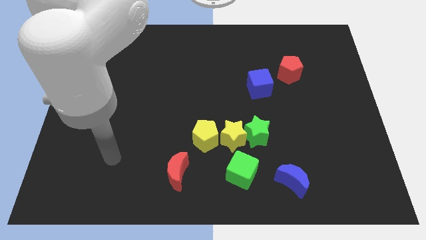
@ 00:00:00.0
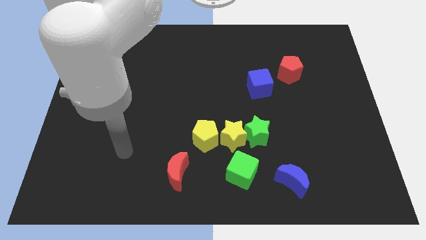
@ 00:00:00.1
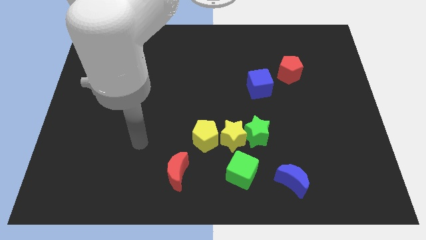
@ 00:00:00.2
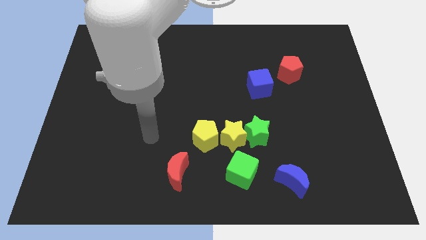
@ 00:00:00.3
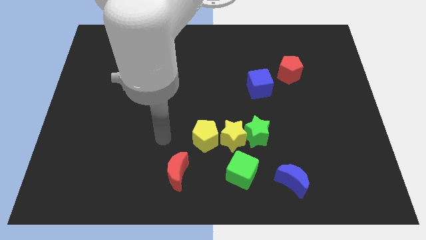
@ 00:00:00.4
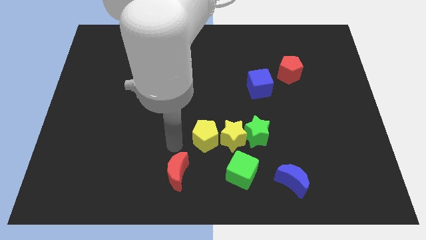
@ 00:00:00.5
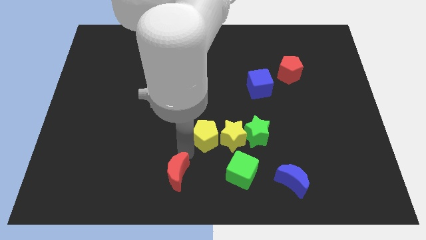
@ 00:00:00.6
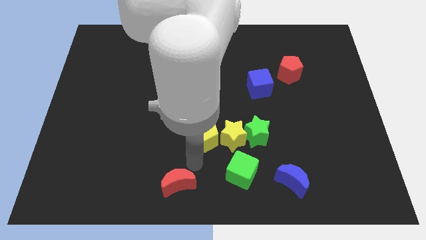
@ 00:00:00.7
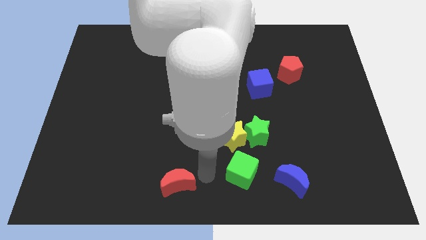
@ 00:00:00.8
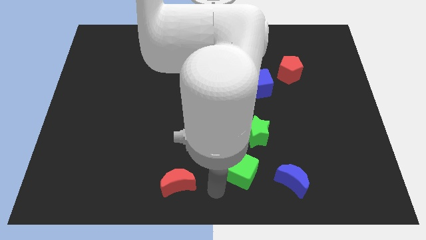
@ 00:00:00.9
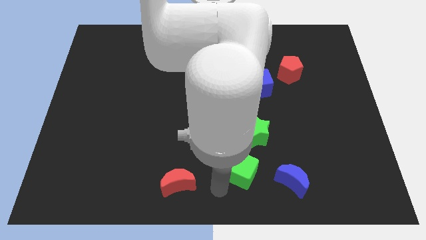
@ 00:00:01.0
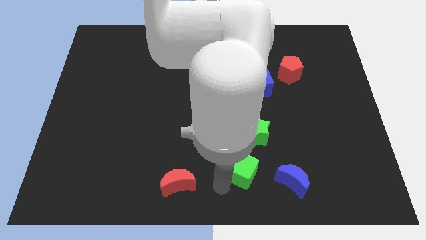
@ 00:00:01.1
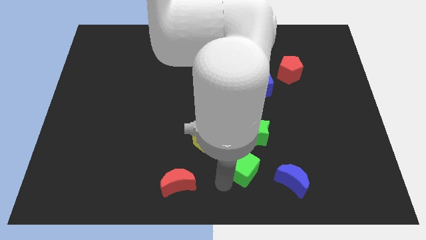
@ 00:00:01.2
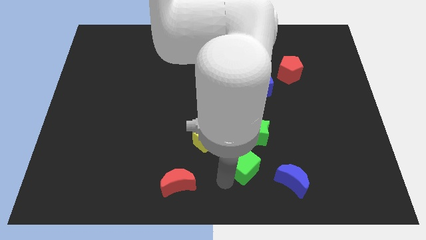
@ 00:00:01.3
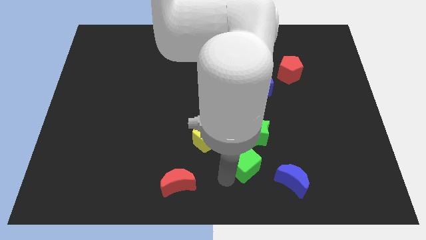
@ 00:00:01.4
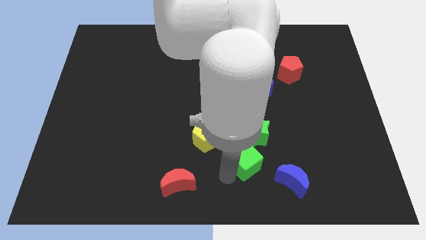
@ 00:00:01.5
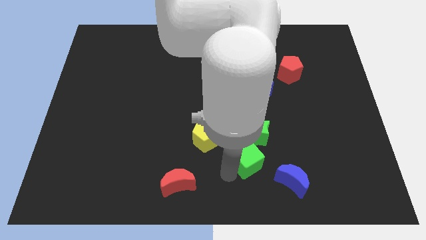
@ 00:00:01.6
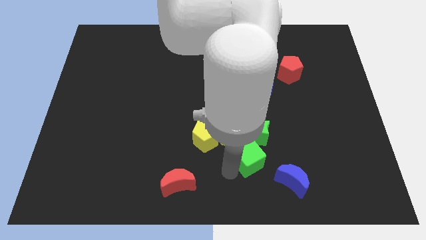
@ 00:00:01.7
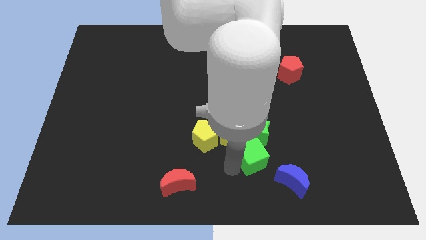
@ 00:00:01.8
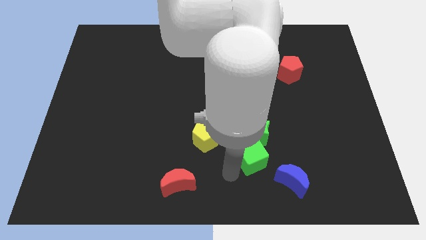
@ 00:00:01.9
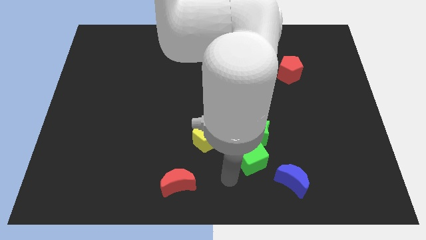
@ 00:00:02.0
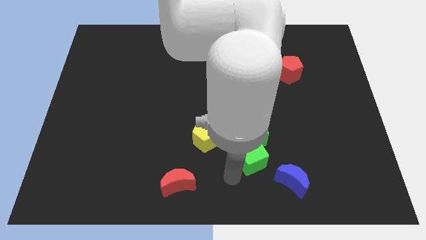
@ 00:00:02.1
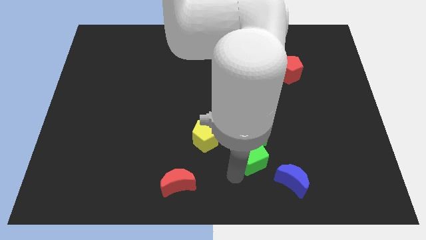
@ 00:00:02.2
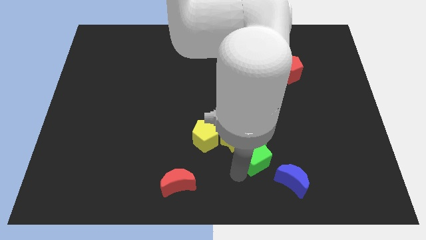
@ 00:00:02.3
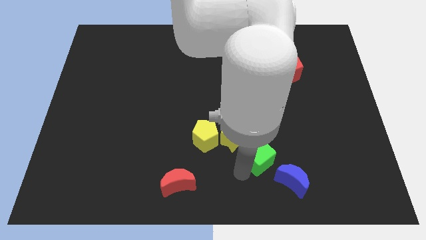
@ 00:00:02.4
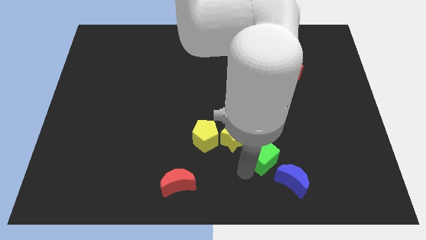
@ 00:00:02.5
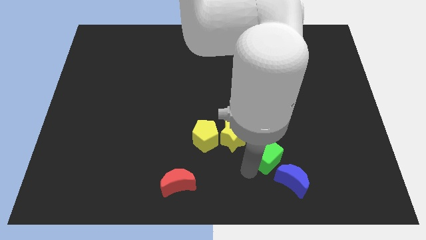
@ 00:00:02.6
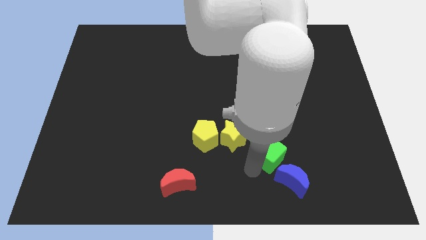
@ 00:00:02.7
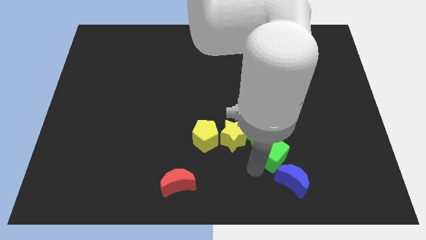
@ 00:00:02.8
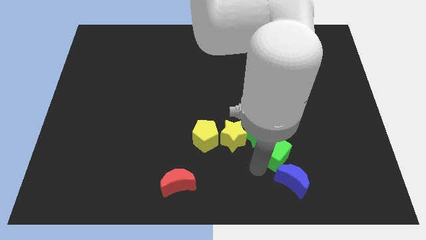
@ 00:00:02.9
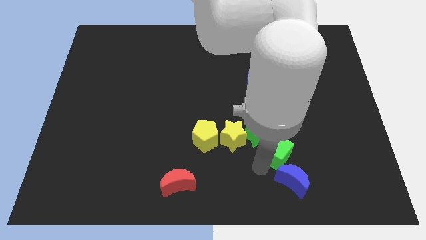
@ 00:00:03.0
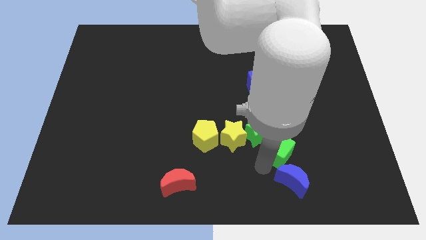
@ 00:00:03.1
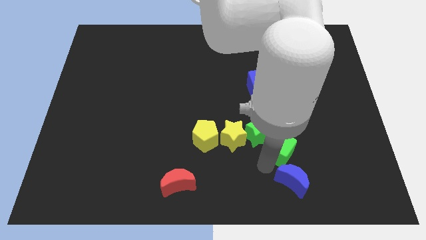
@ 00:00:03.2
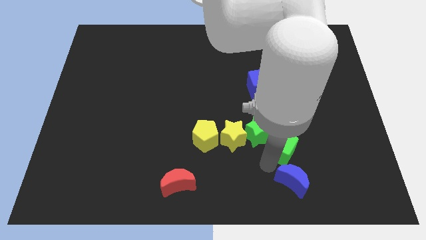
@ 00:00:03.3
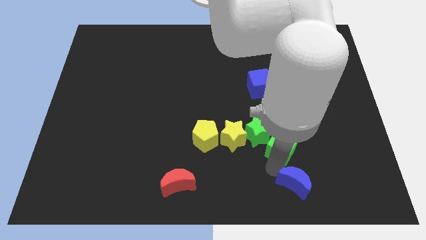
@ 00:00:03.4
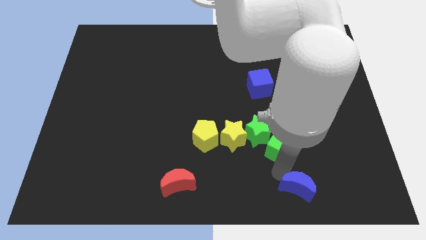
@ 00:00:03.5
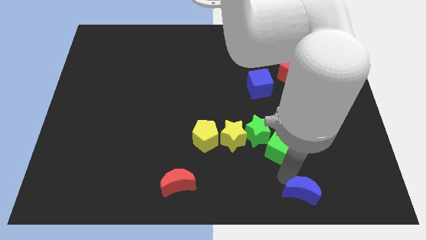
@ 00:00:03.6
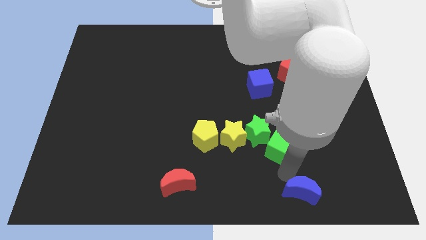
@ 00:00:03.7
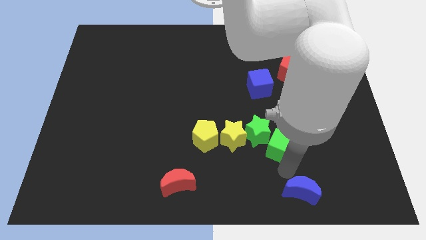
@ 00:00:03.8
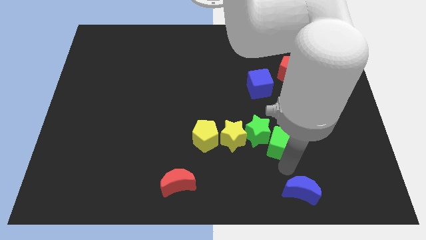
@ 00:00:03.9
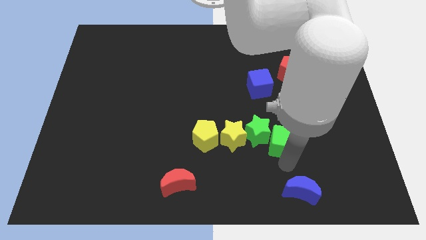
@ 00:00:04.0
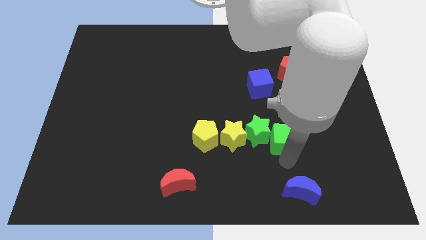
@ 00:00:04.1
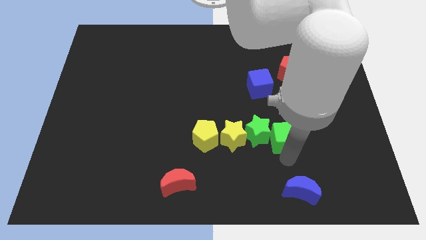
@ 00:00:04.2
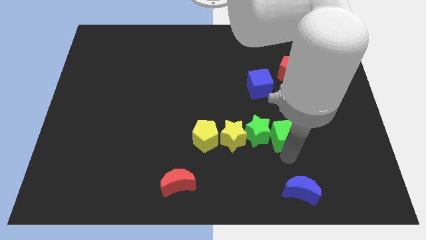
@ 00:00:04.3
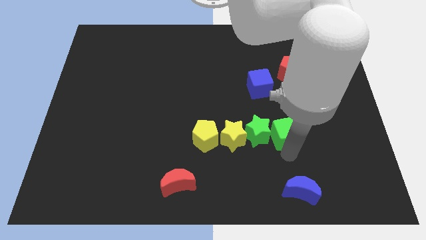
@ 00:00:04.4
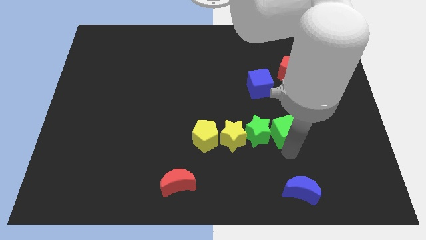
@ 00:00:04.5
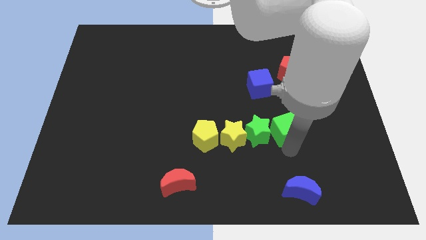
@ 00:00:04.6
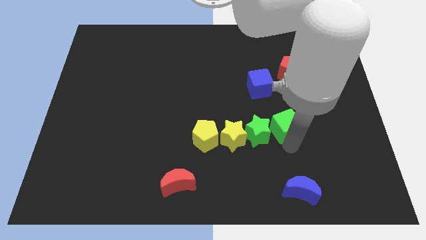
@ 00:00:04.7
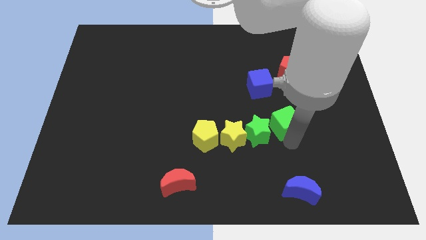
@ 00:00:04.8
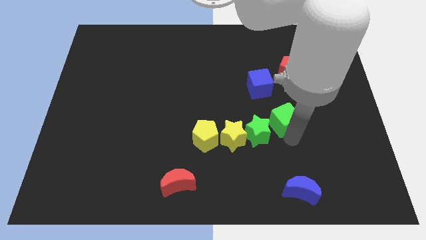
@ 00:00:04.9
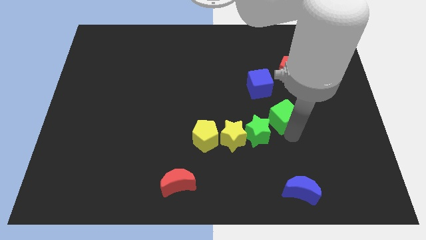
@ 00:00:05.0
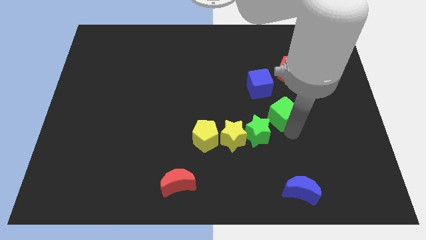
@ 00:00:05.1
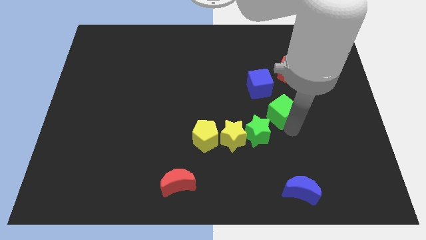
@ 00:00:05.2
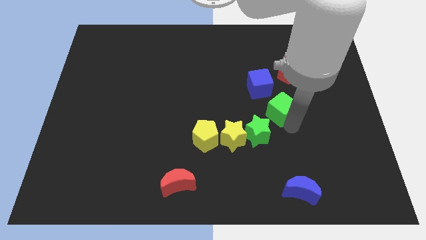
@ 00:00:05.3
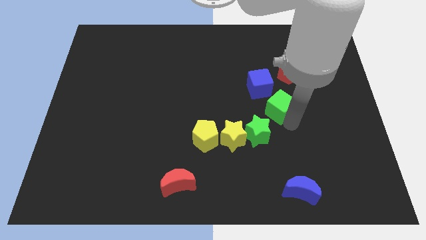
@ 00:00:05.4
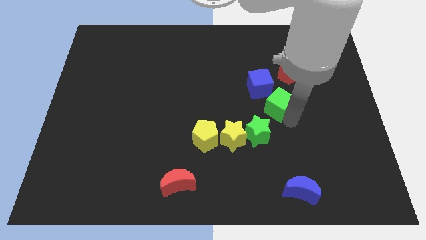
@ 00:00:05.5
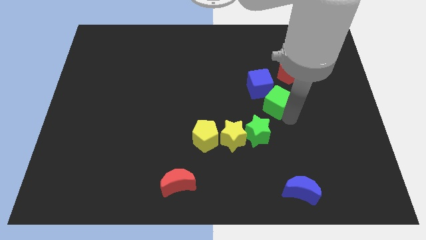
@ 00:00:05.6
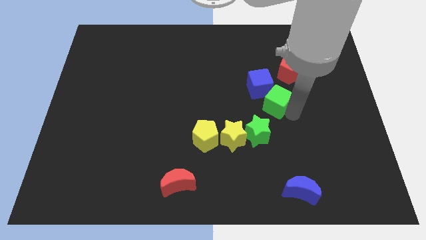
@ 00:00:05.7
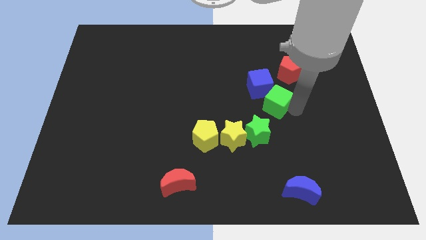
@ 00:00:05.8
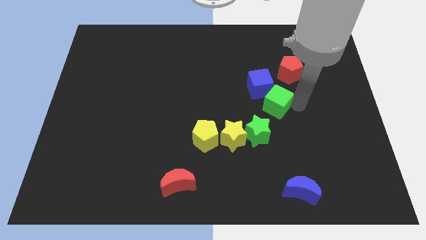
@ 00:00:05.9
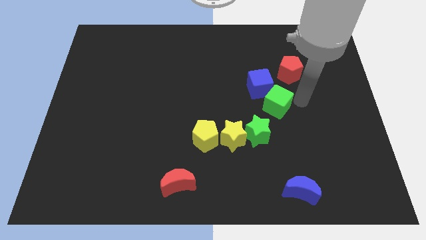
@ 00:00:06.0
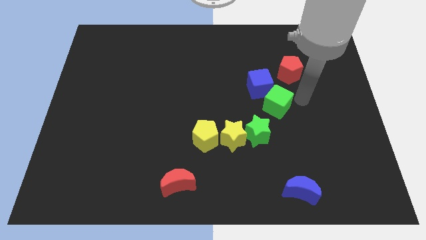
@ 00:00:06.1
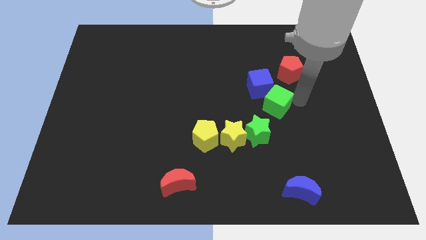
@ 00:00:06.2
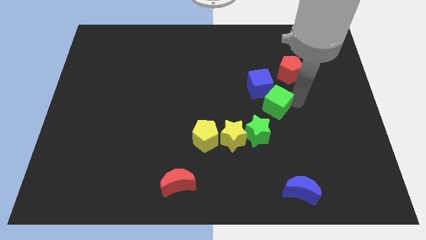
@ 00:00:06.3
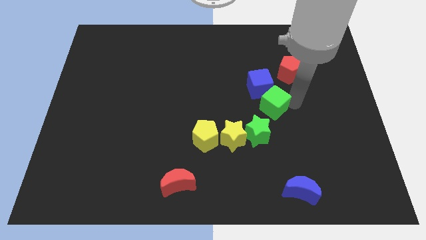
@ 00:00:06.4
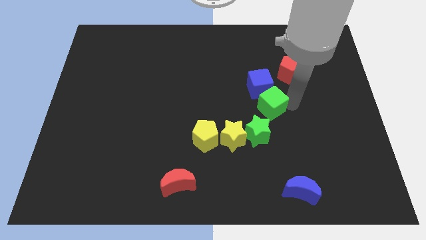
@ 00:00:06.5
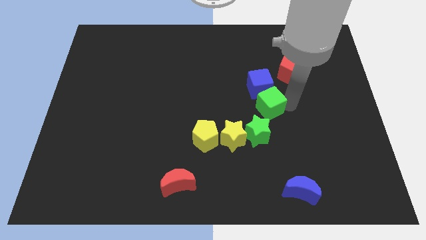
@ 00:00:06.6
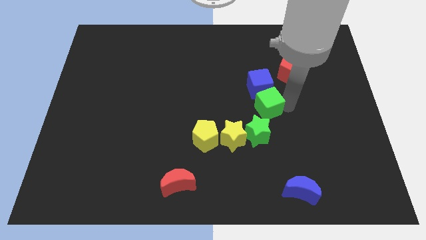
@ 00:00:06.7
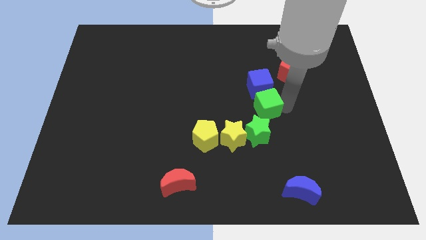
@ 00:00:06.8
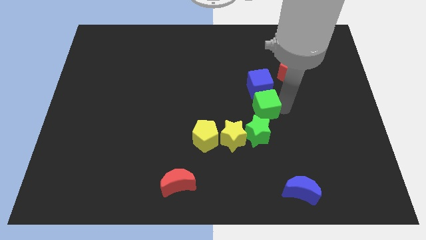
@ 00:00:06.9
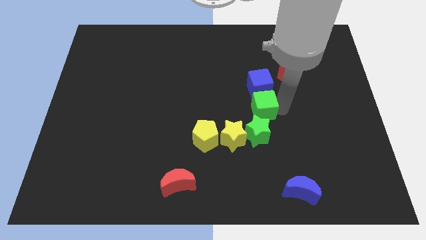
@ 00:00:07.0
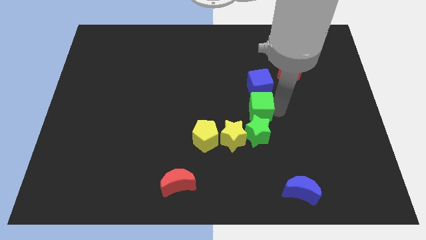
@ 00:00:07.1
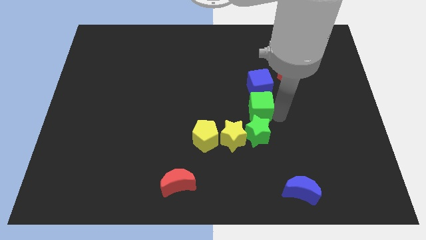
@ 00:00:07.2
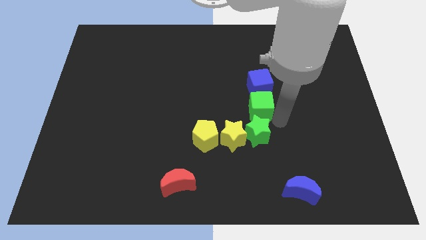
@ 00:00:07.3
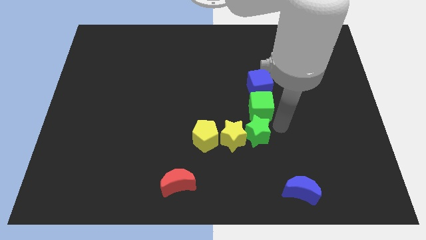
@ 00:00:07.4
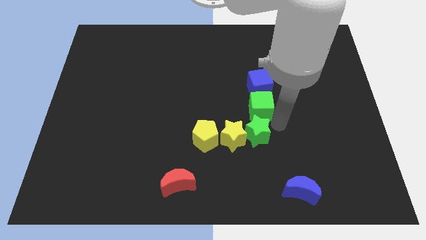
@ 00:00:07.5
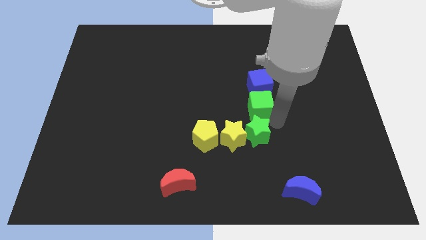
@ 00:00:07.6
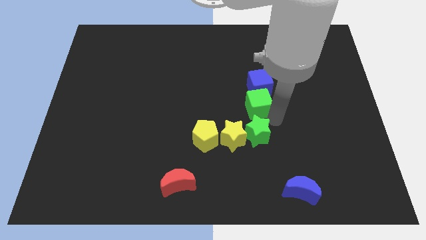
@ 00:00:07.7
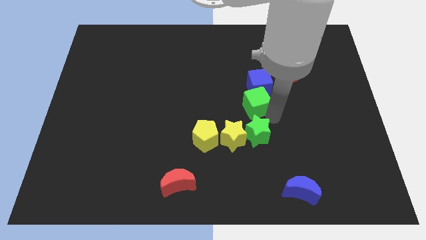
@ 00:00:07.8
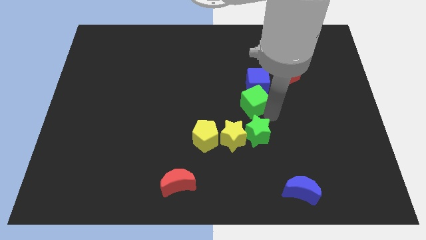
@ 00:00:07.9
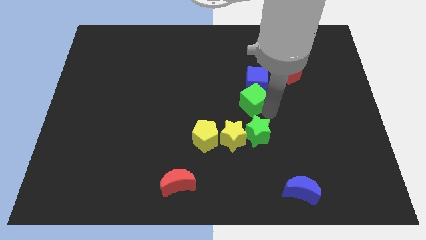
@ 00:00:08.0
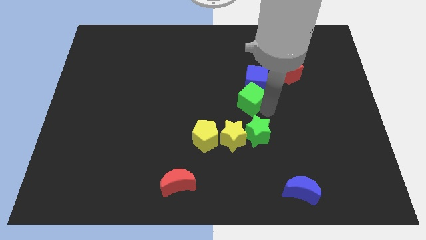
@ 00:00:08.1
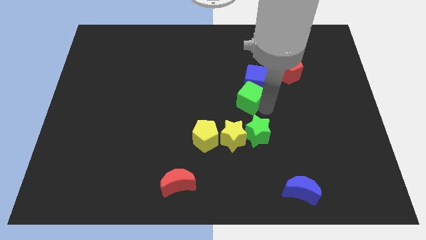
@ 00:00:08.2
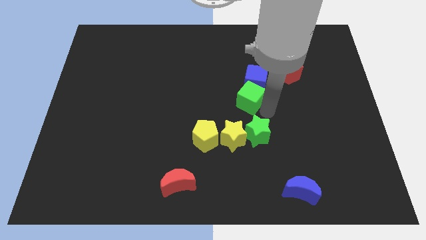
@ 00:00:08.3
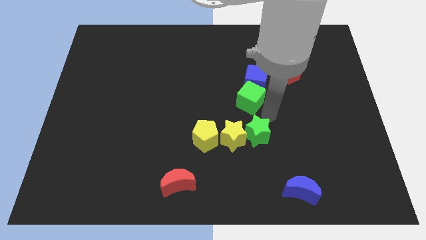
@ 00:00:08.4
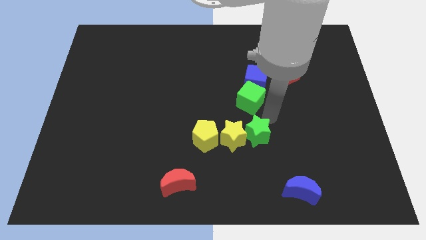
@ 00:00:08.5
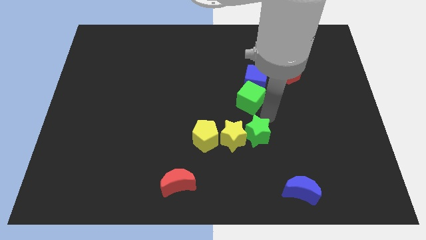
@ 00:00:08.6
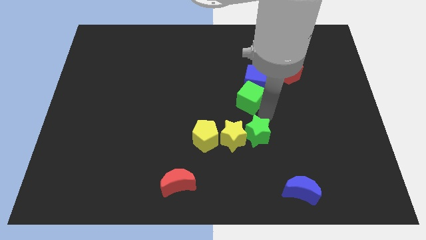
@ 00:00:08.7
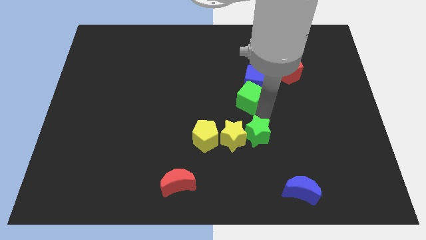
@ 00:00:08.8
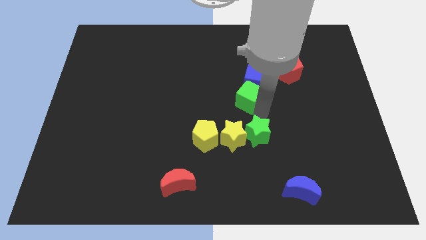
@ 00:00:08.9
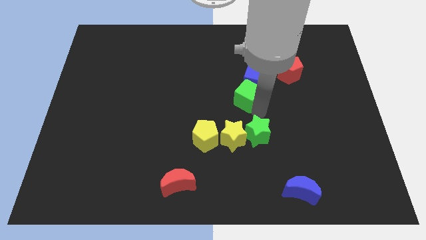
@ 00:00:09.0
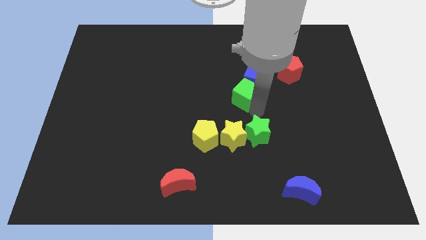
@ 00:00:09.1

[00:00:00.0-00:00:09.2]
move the green cube upwards
